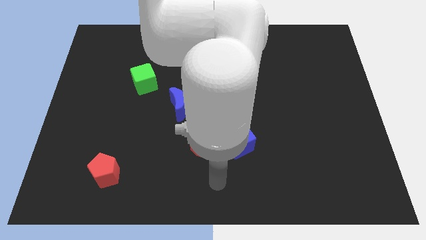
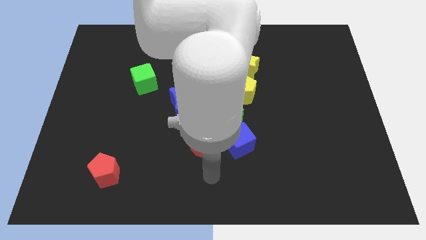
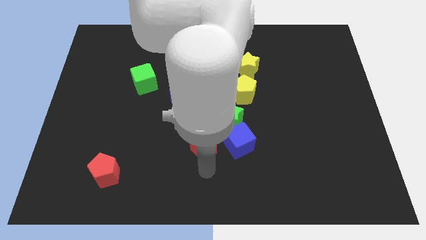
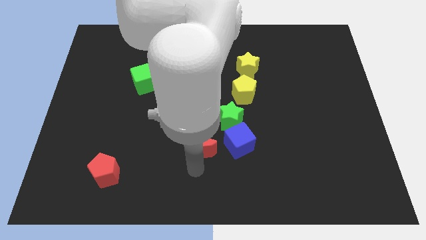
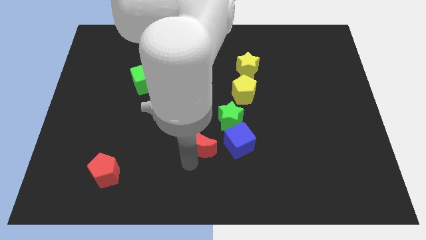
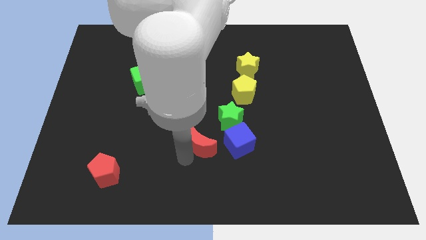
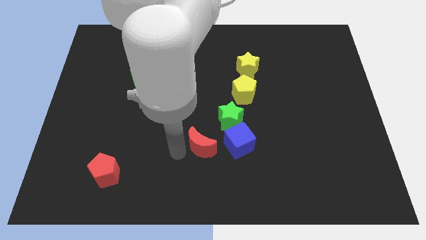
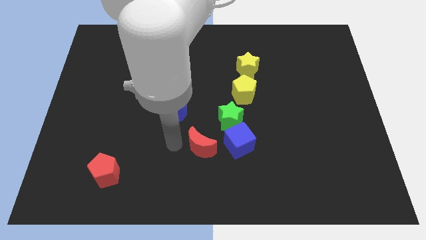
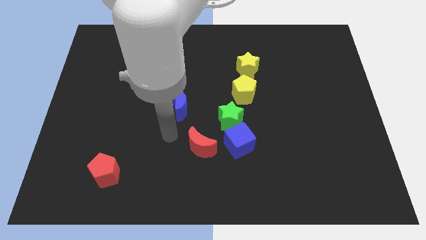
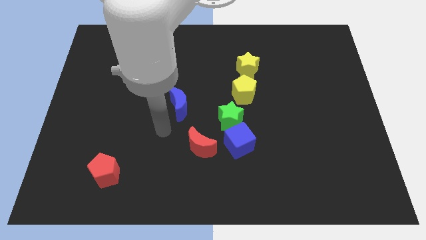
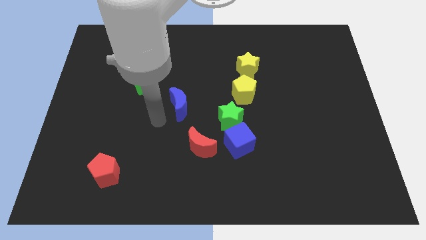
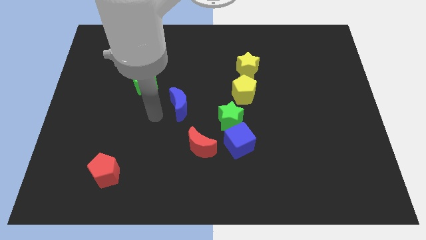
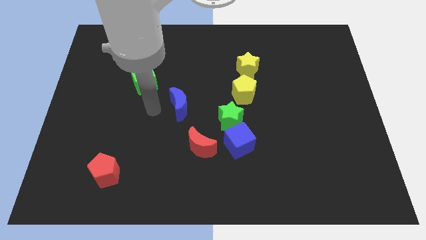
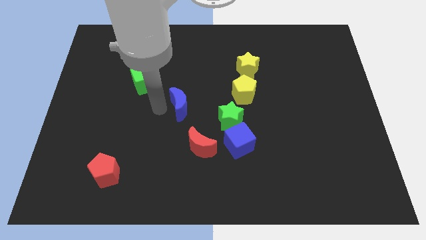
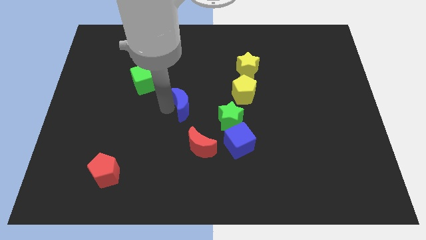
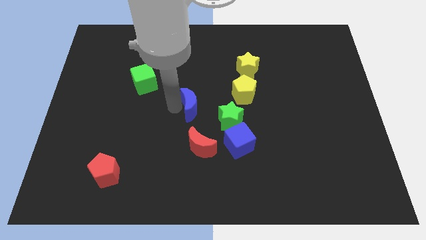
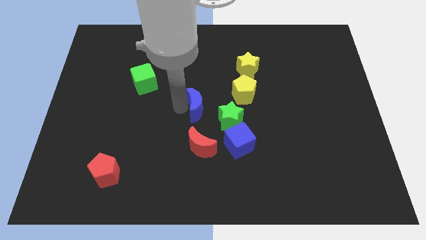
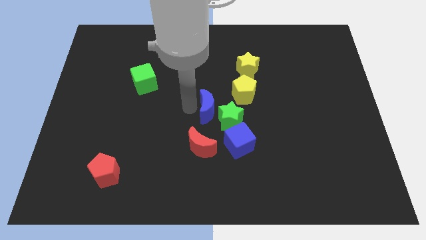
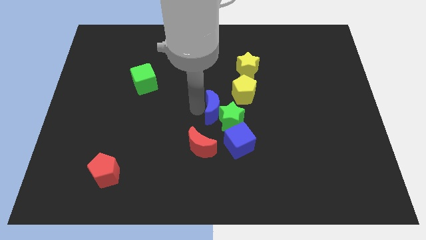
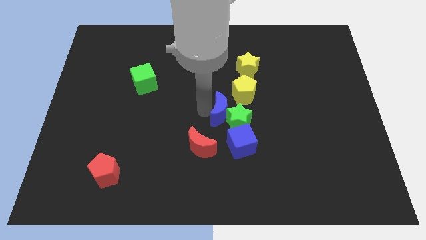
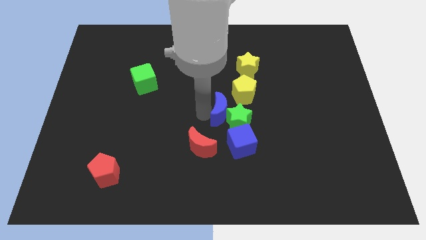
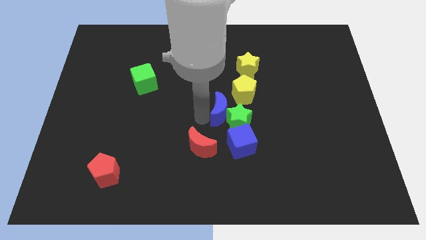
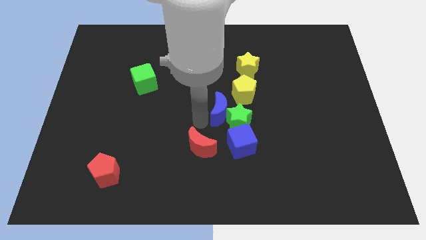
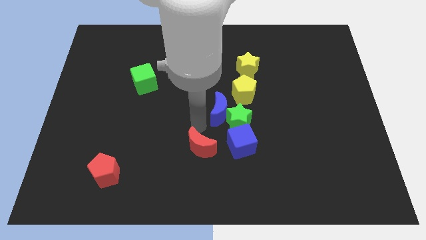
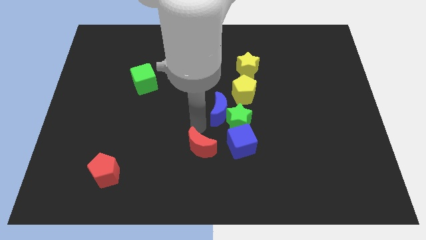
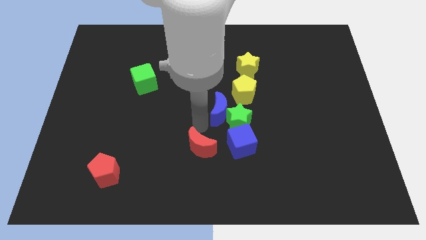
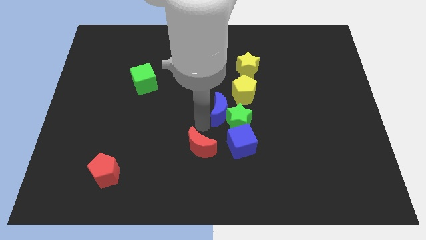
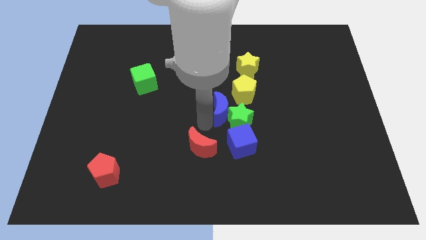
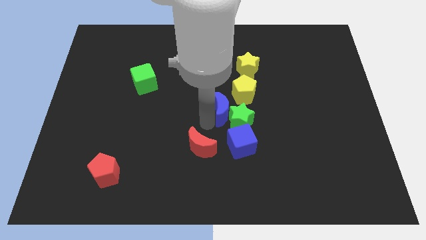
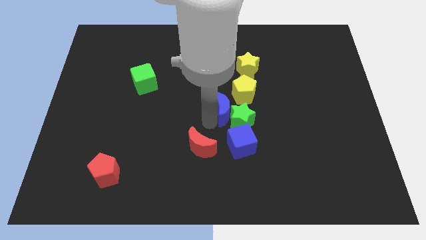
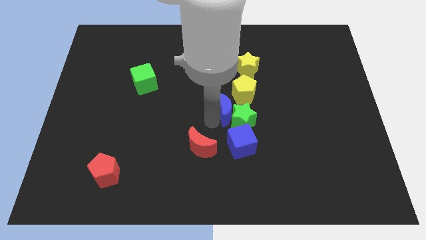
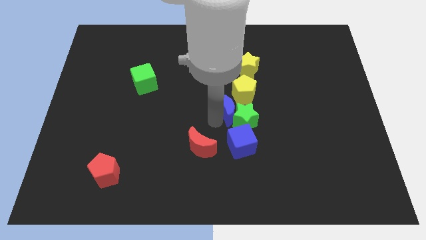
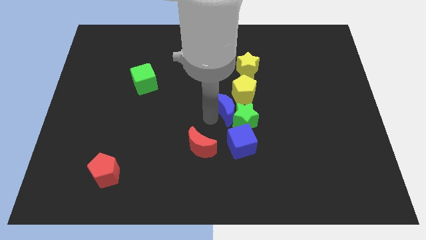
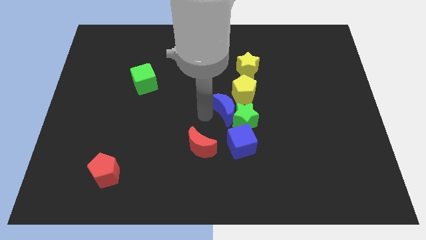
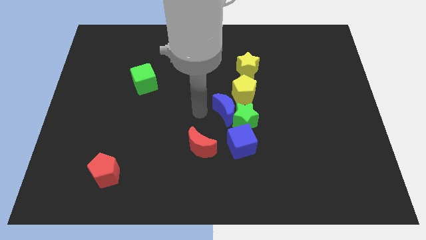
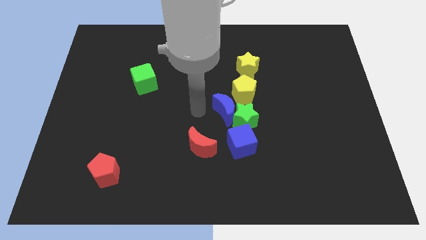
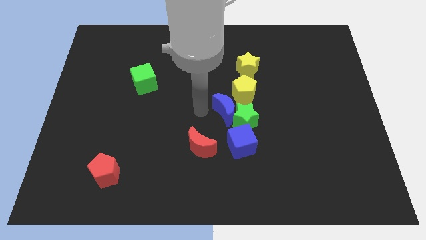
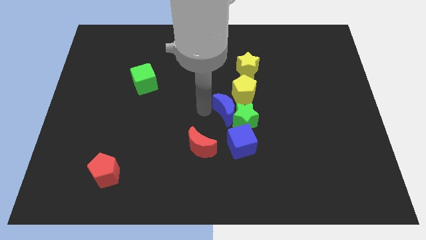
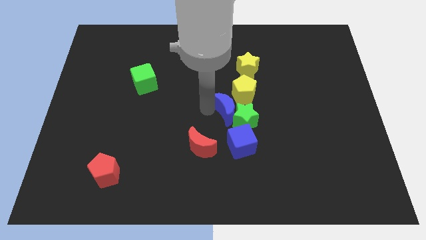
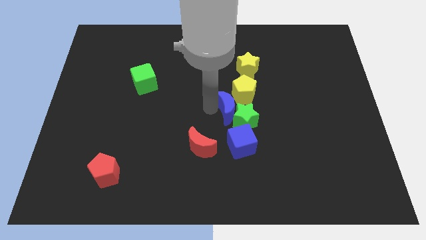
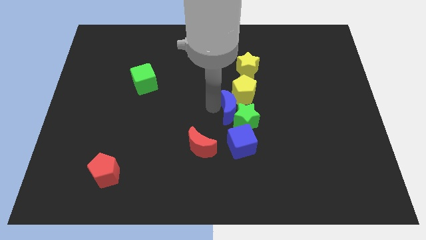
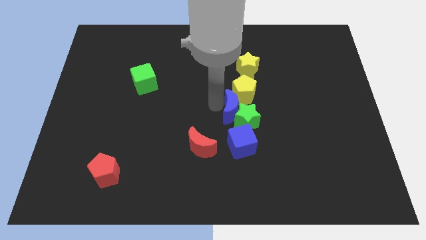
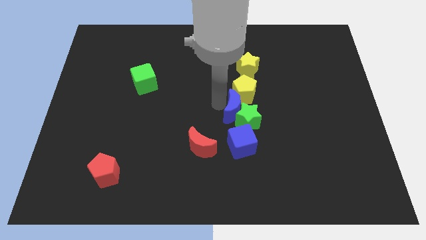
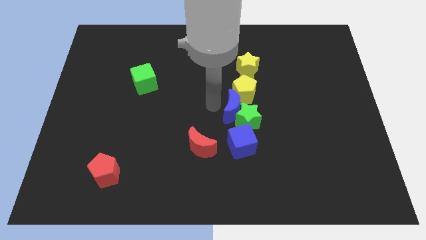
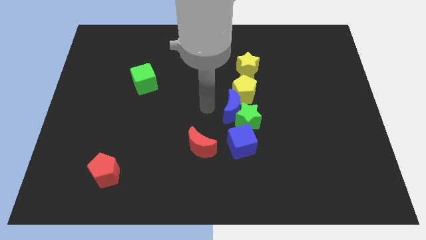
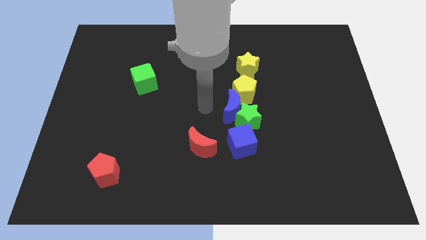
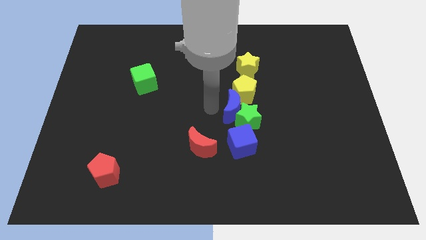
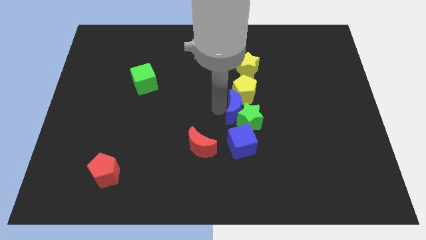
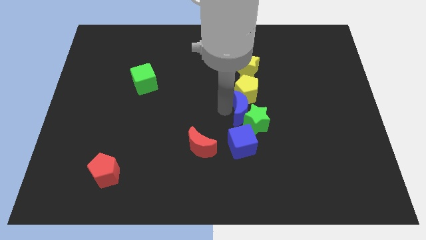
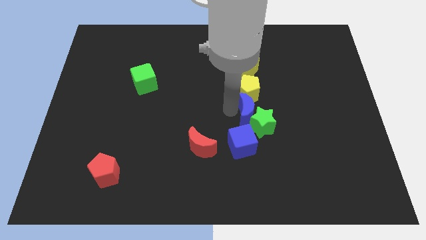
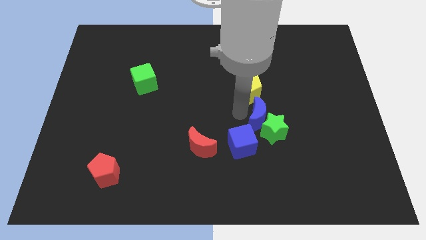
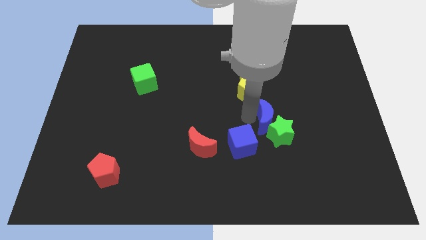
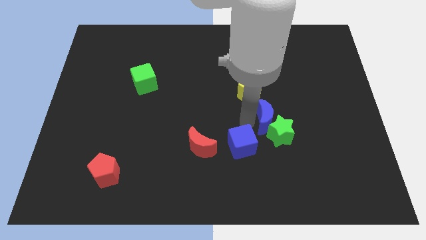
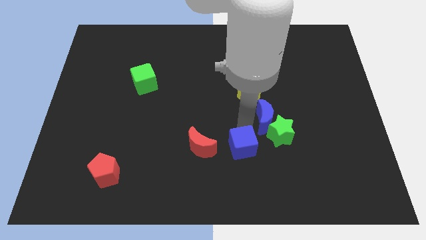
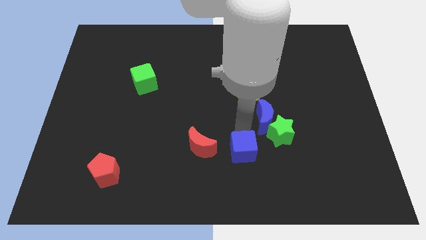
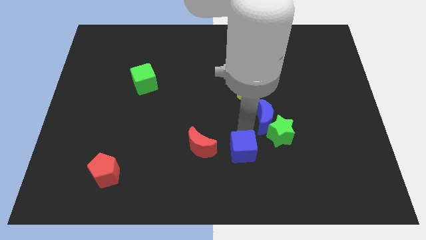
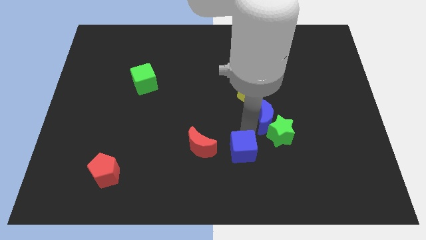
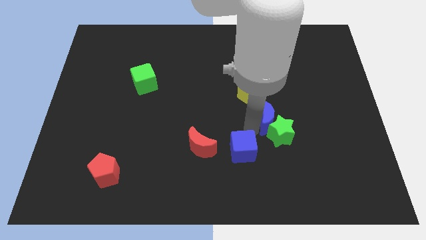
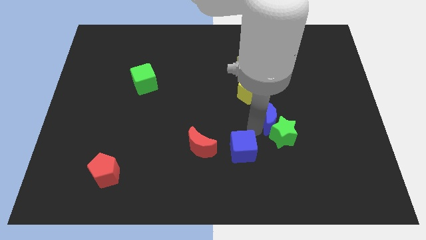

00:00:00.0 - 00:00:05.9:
move the blue moon right

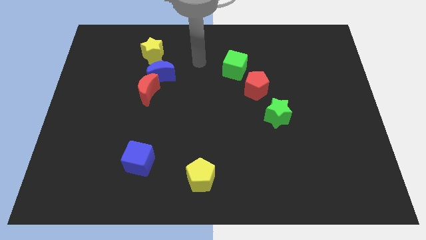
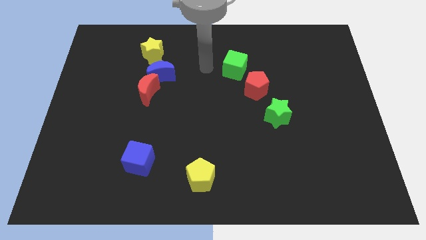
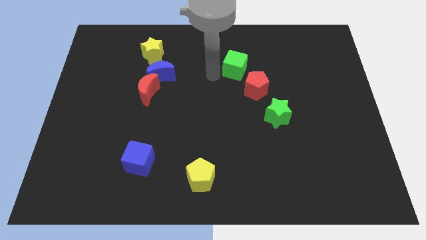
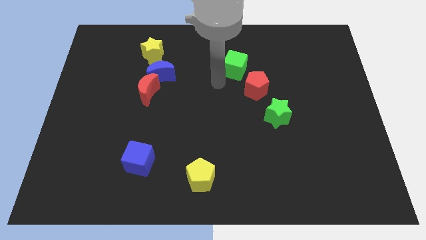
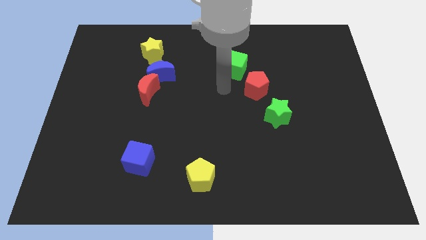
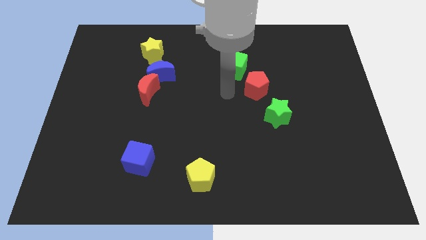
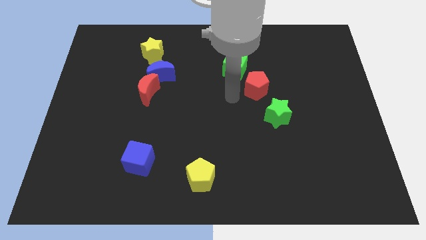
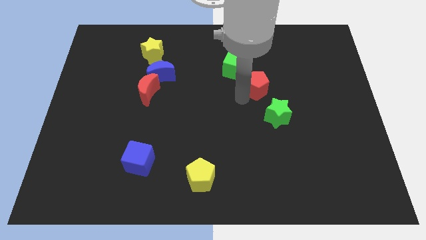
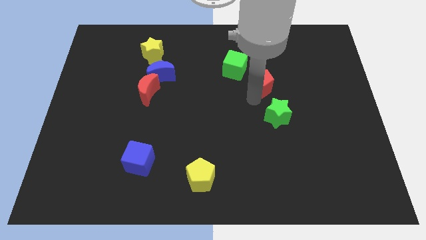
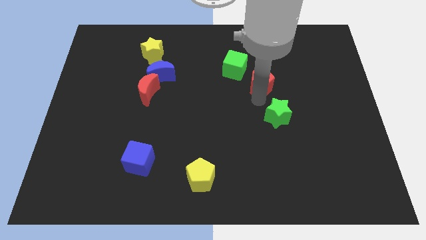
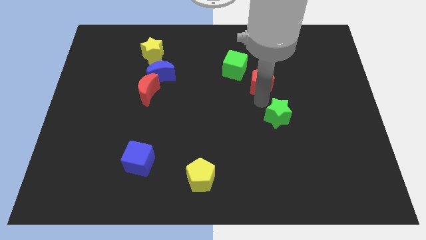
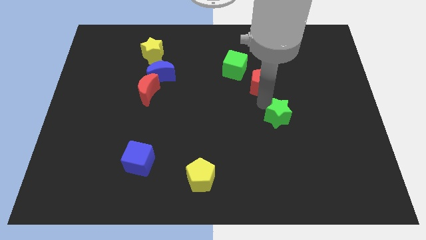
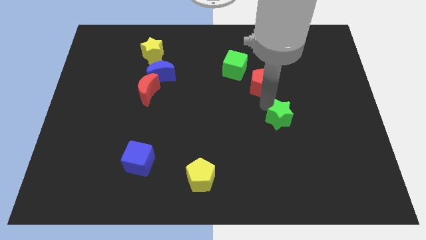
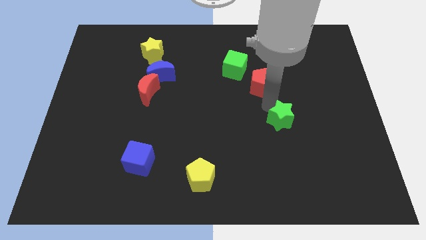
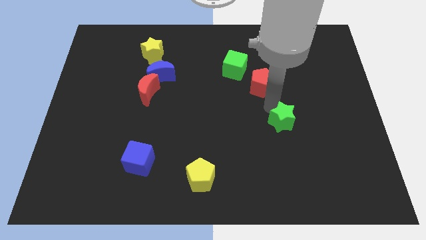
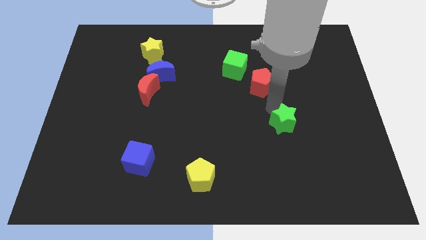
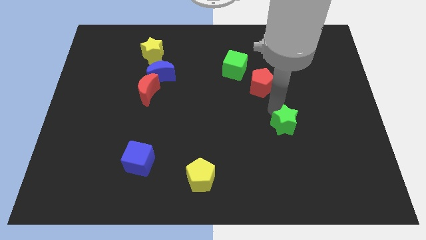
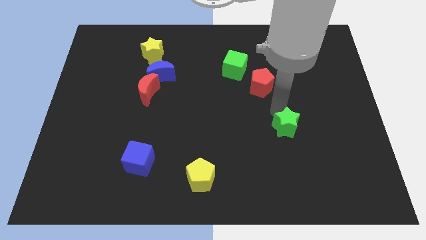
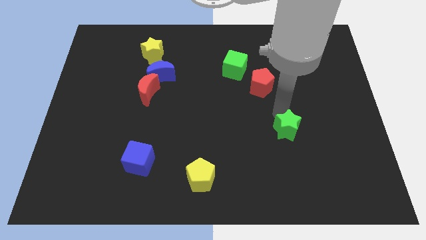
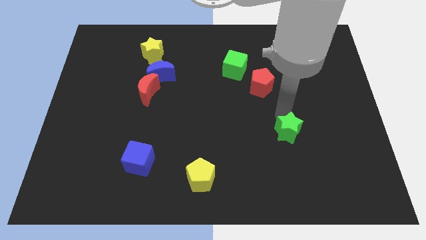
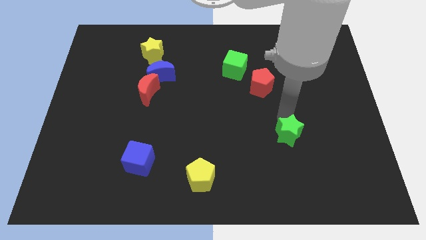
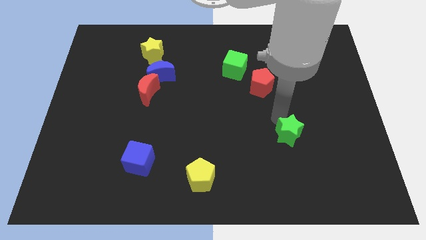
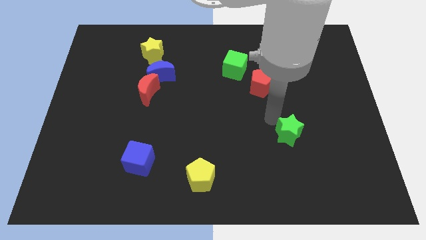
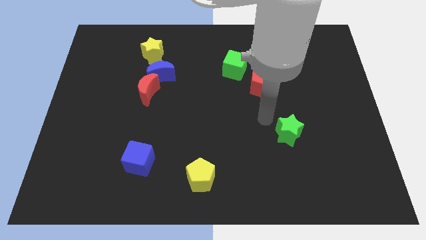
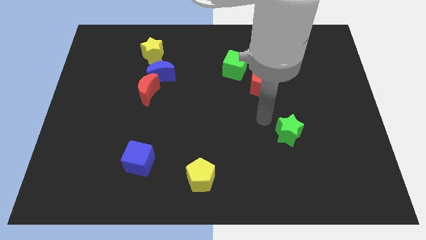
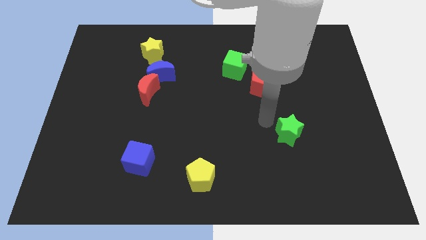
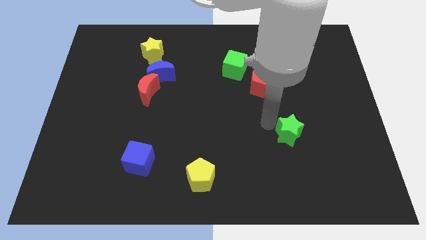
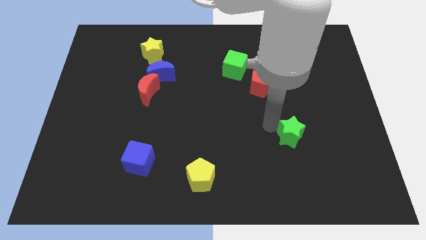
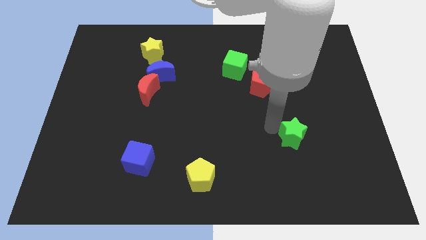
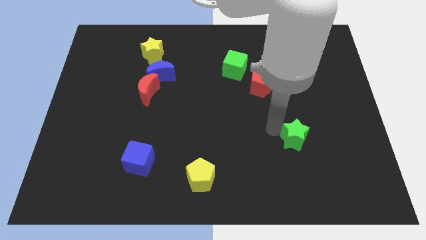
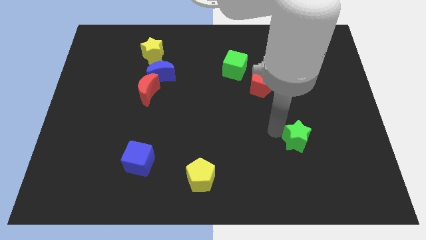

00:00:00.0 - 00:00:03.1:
slightly move the green star diagonally down and right
